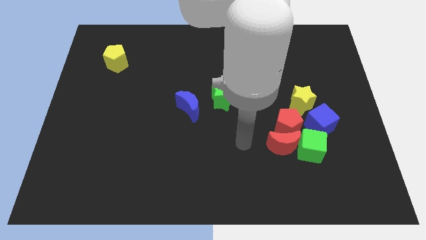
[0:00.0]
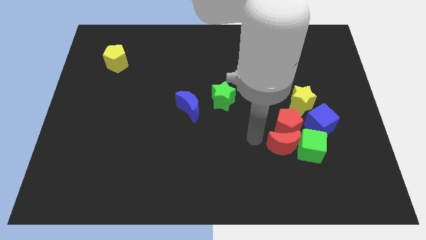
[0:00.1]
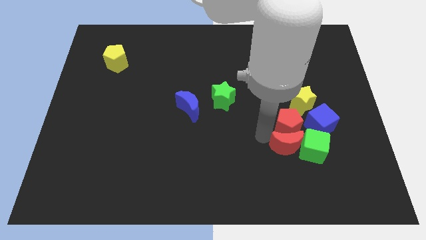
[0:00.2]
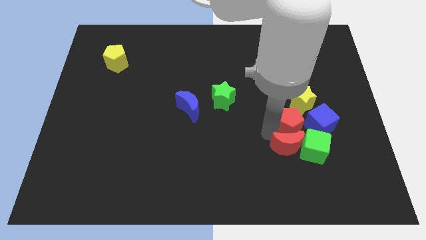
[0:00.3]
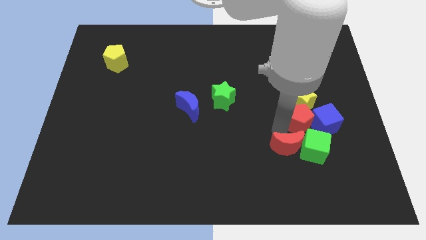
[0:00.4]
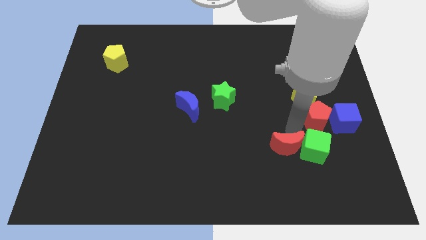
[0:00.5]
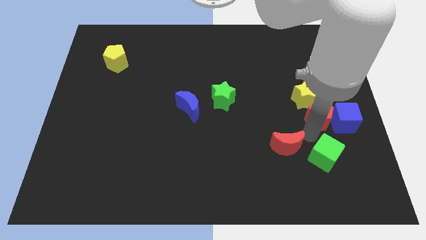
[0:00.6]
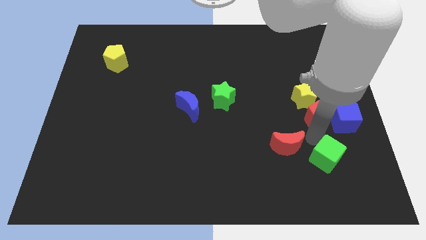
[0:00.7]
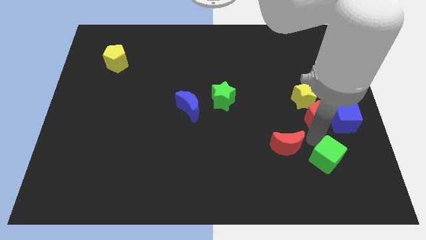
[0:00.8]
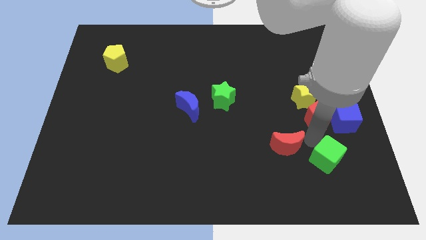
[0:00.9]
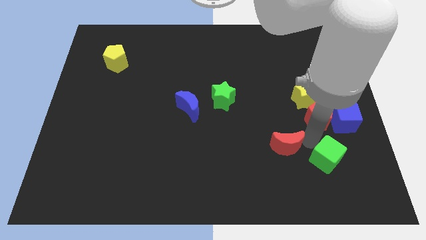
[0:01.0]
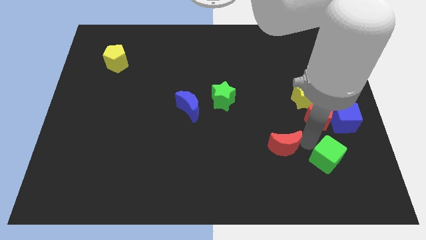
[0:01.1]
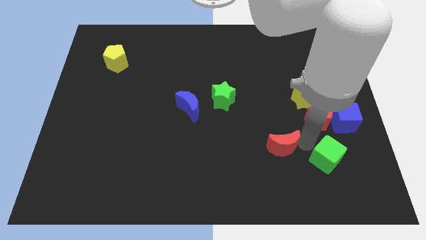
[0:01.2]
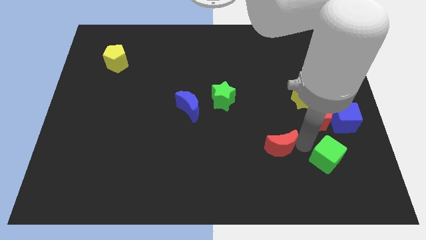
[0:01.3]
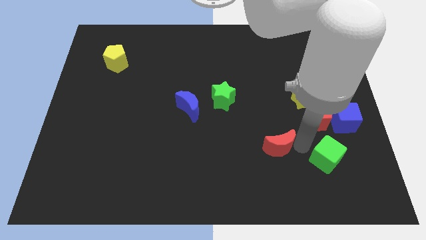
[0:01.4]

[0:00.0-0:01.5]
move the red moon away from the red pentagon and green cube

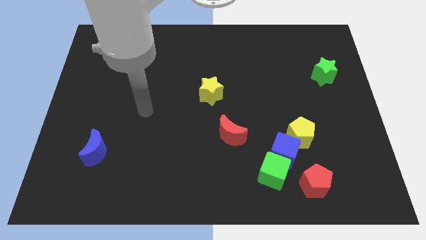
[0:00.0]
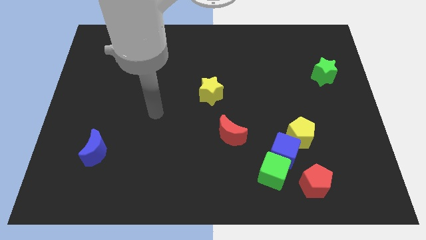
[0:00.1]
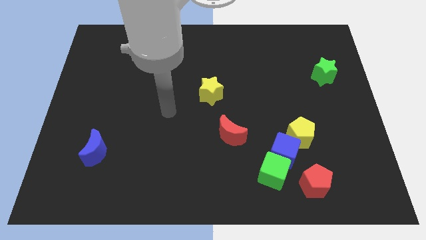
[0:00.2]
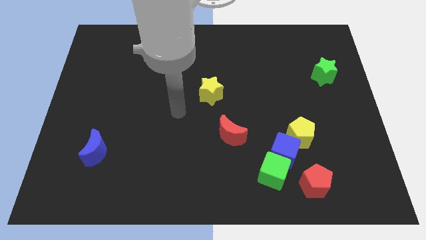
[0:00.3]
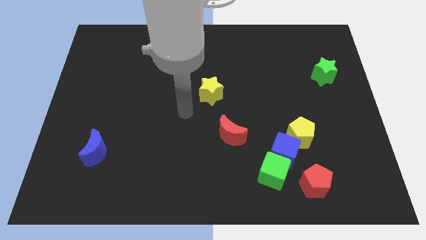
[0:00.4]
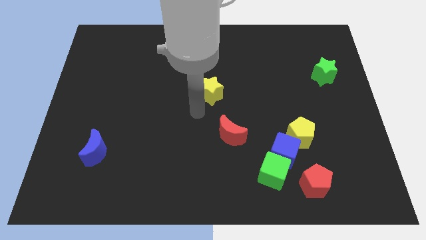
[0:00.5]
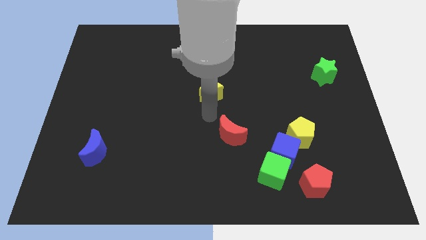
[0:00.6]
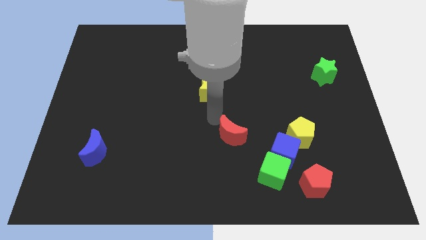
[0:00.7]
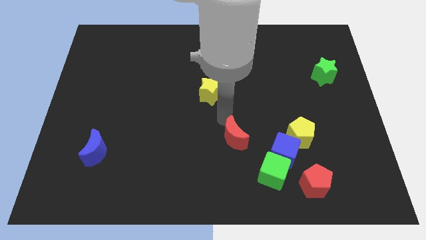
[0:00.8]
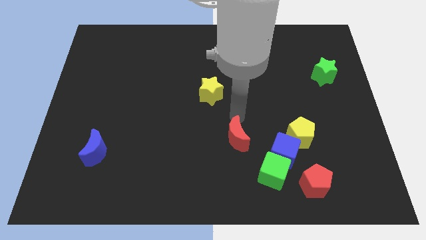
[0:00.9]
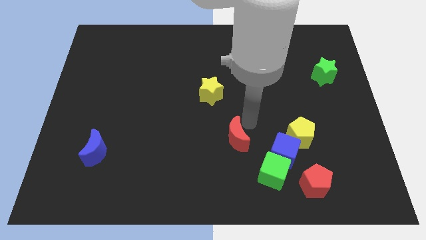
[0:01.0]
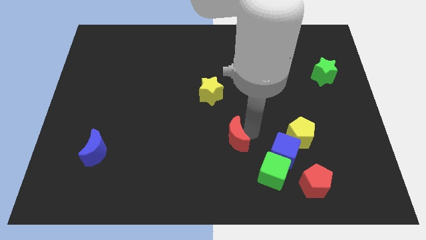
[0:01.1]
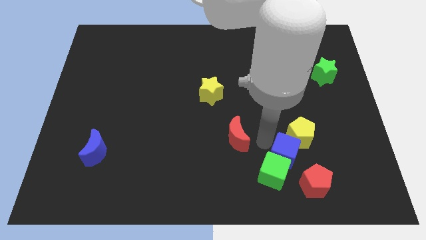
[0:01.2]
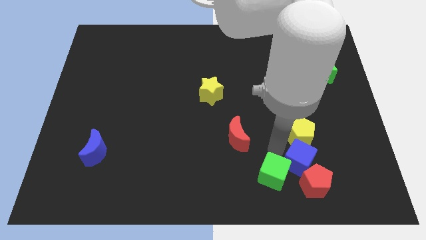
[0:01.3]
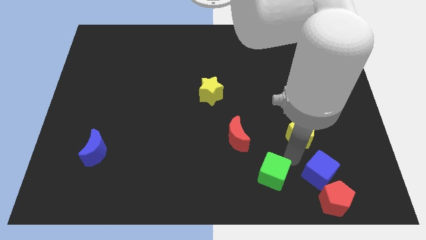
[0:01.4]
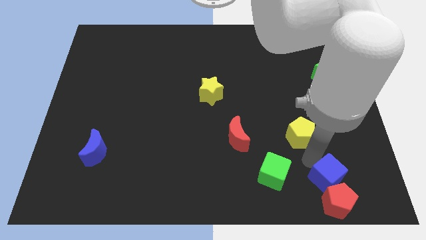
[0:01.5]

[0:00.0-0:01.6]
pull the yellow pentagon apart from the blue cube

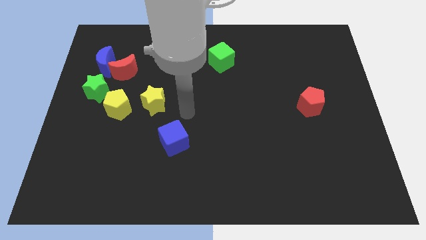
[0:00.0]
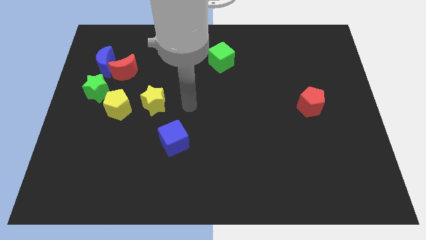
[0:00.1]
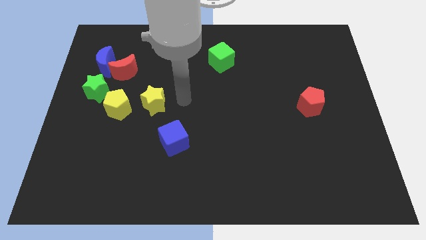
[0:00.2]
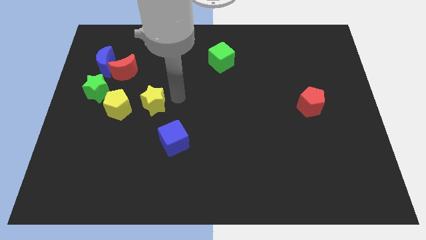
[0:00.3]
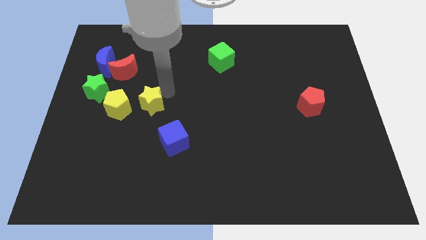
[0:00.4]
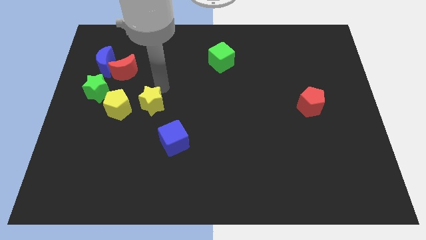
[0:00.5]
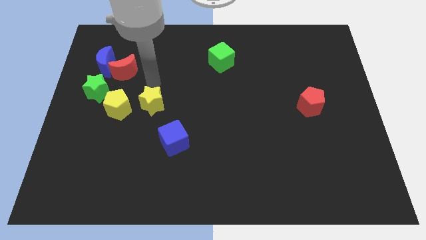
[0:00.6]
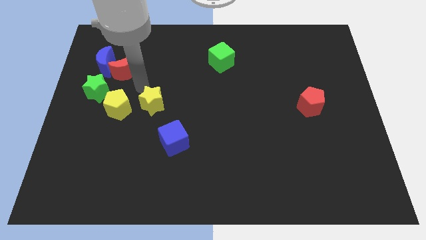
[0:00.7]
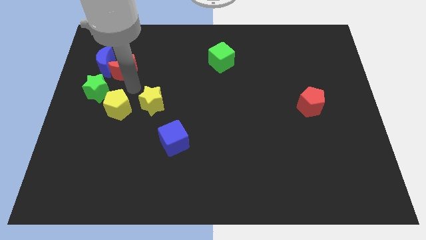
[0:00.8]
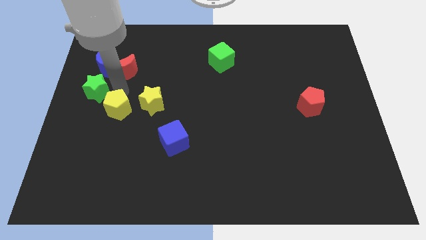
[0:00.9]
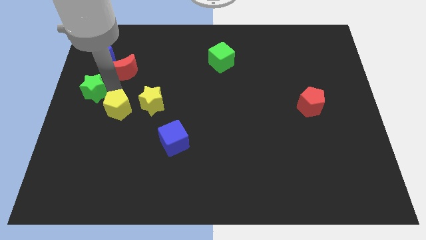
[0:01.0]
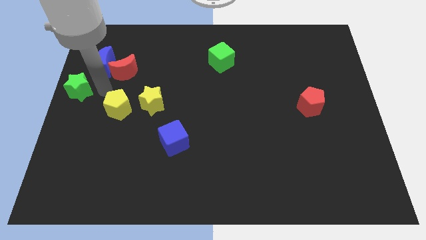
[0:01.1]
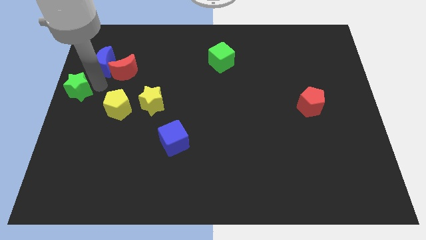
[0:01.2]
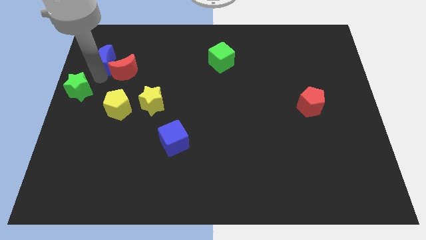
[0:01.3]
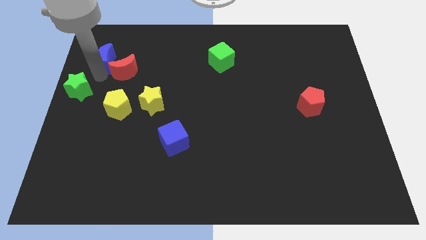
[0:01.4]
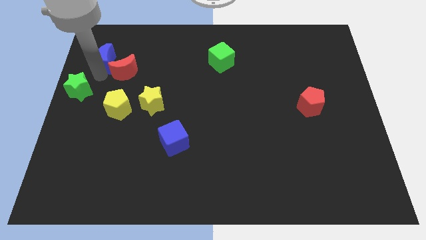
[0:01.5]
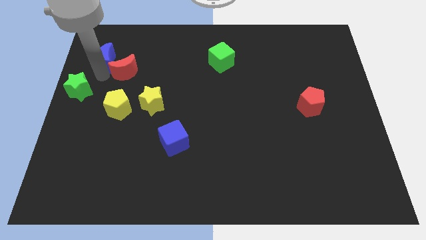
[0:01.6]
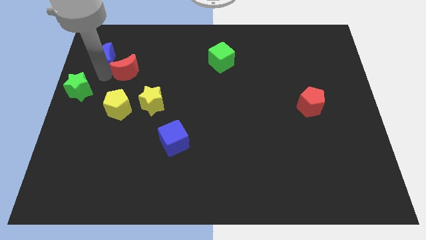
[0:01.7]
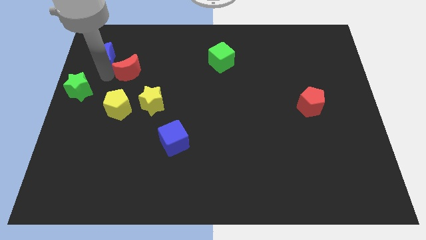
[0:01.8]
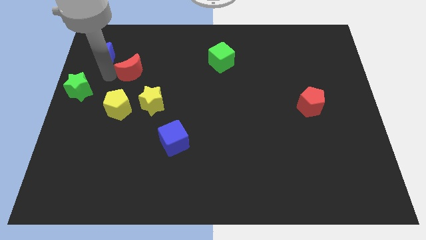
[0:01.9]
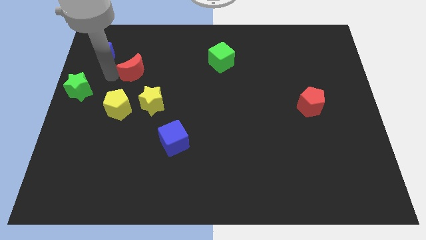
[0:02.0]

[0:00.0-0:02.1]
pull the red moon apart from the blue moon and green star

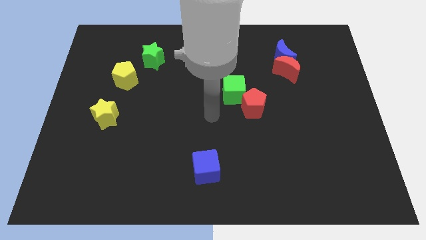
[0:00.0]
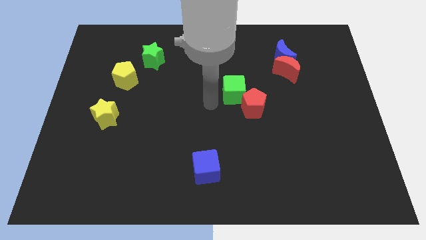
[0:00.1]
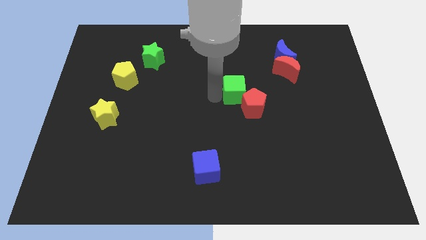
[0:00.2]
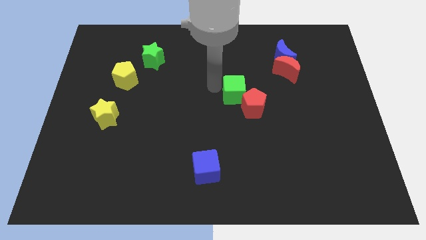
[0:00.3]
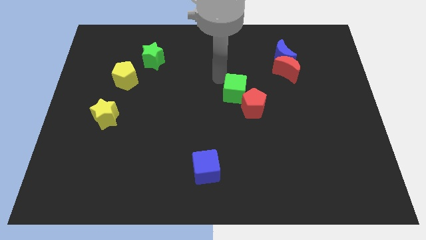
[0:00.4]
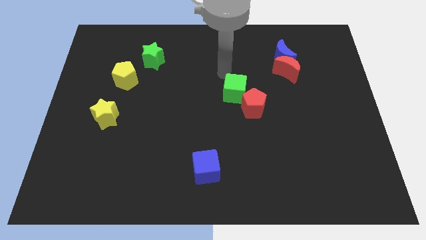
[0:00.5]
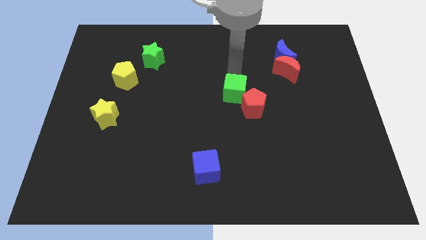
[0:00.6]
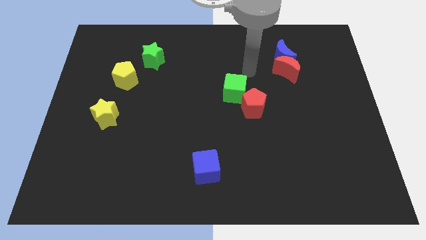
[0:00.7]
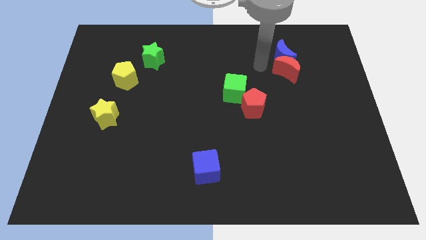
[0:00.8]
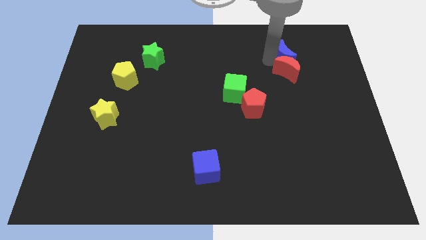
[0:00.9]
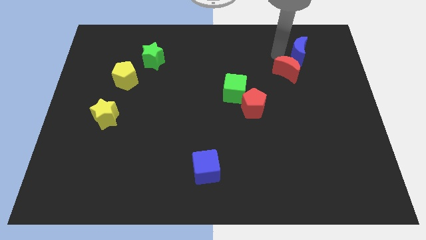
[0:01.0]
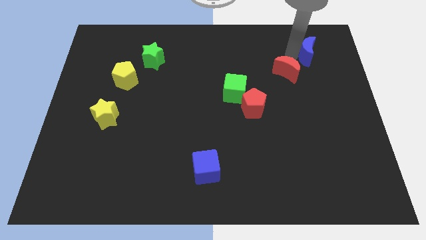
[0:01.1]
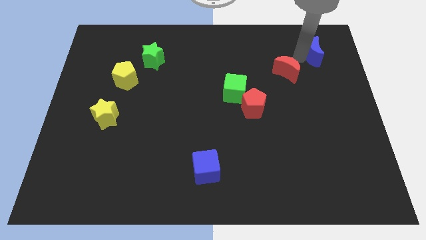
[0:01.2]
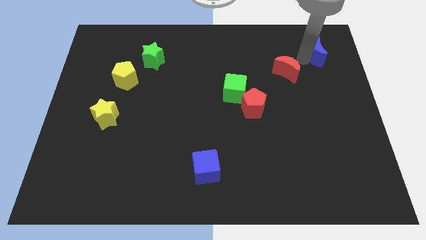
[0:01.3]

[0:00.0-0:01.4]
separate the red moon from the blue moon

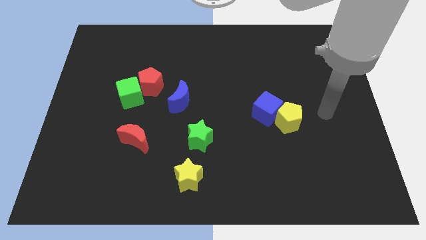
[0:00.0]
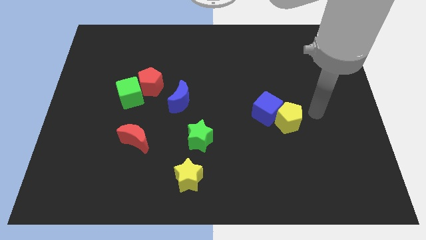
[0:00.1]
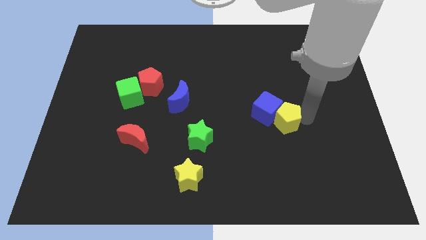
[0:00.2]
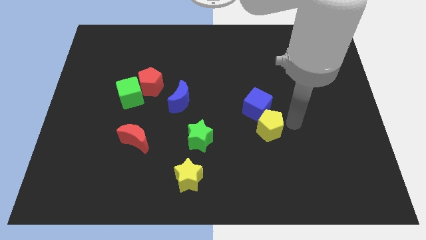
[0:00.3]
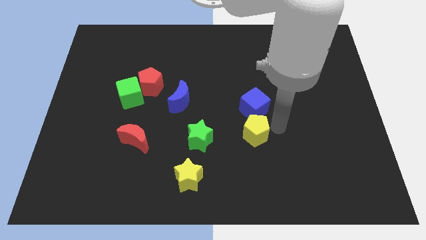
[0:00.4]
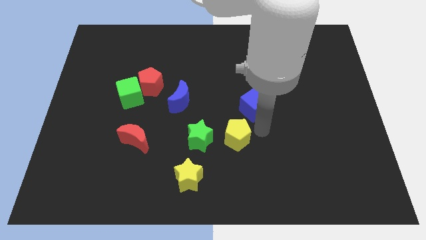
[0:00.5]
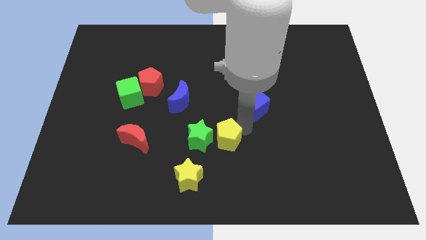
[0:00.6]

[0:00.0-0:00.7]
move the blue cube away from the yellow pentagon

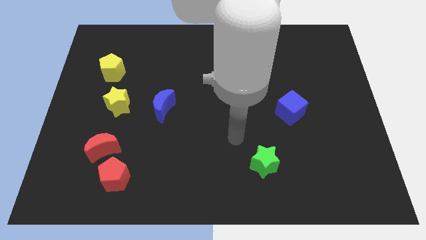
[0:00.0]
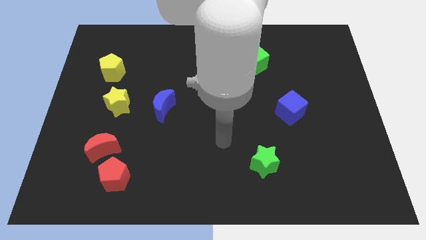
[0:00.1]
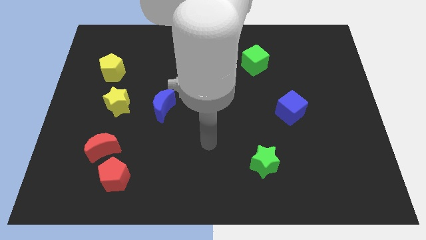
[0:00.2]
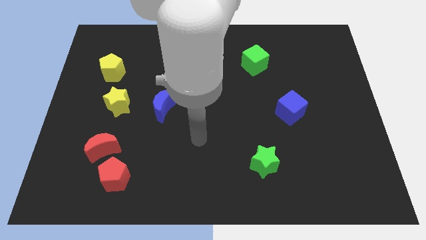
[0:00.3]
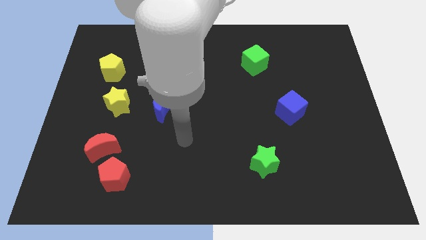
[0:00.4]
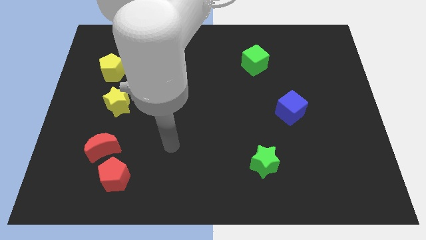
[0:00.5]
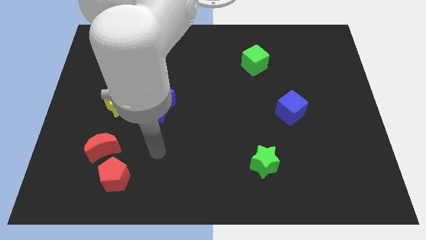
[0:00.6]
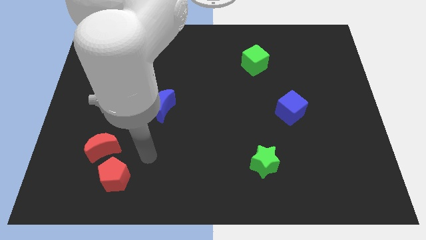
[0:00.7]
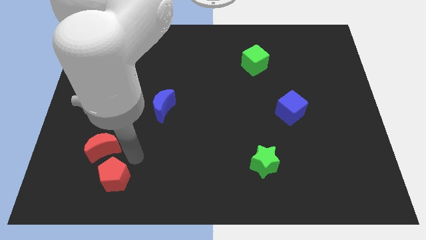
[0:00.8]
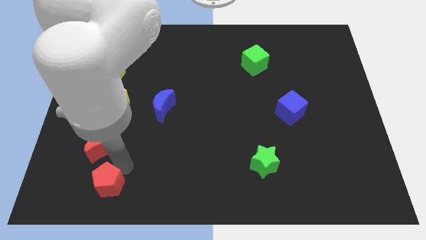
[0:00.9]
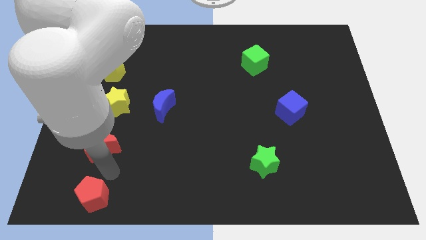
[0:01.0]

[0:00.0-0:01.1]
move the red moon away from the red pentagon

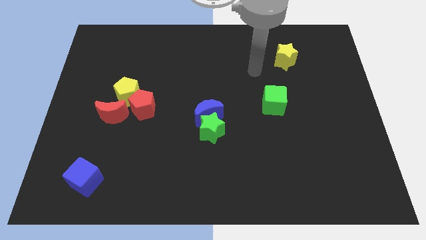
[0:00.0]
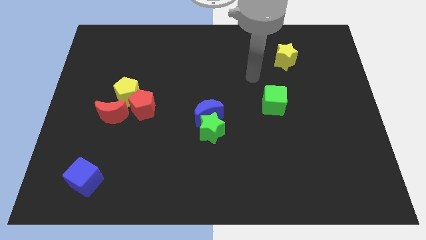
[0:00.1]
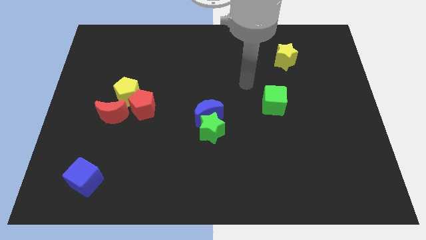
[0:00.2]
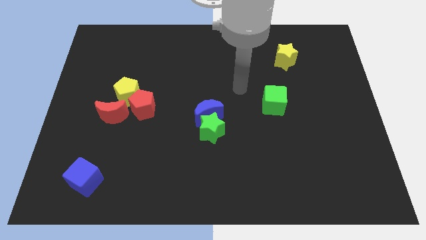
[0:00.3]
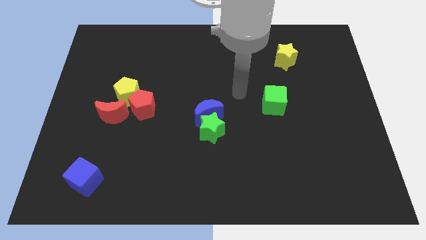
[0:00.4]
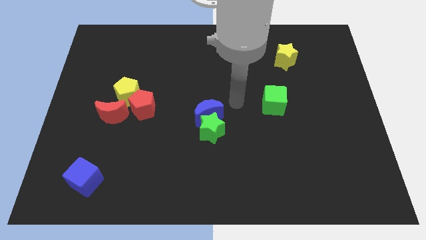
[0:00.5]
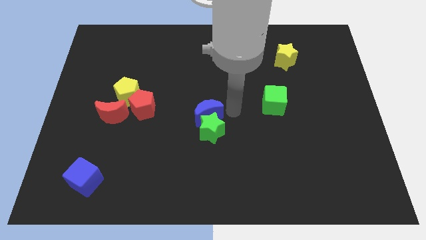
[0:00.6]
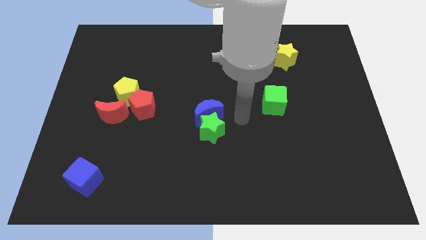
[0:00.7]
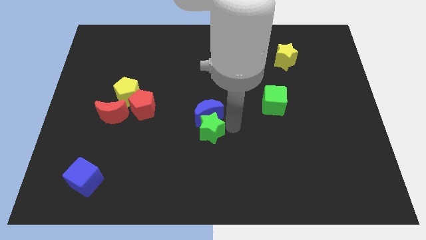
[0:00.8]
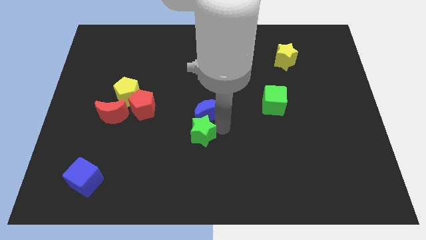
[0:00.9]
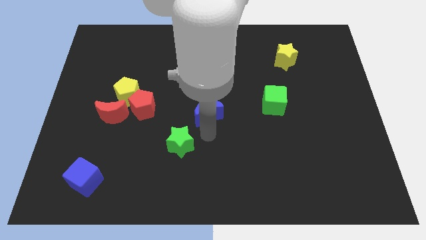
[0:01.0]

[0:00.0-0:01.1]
move the blue moon away from the green star
